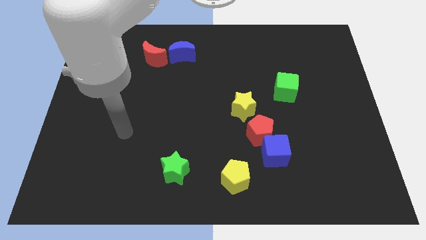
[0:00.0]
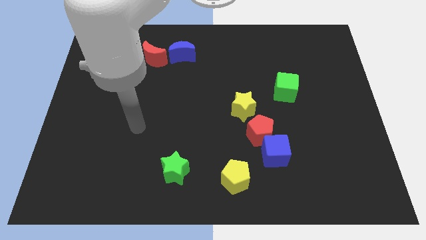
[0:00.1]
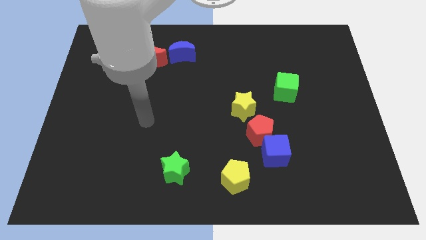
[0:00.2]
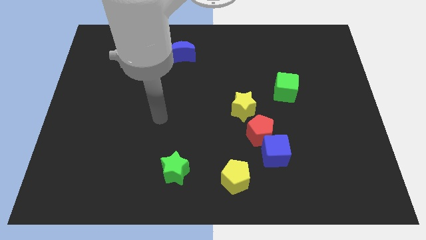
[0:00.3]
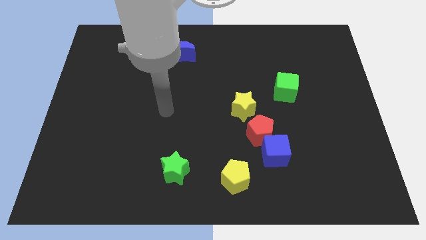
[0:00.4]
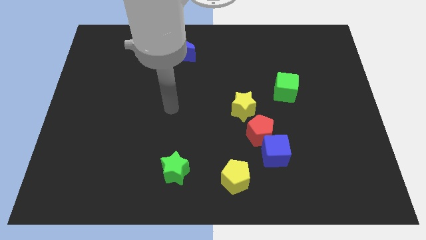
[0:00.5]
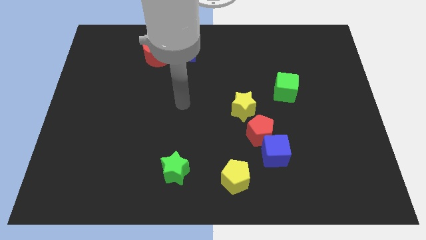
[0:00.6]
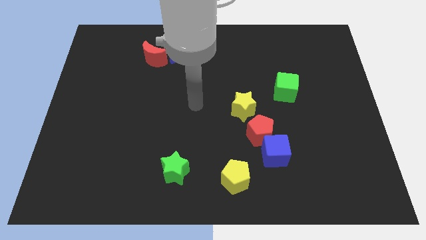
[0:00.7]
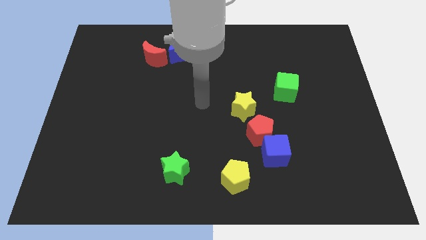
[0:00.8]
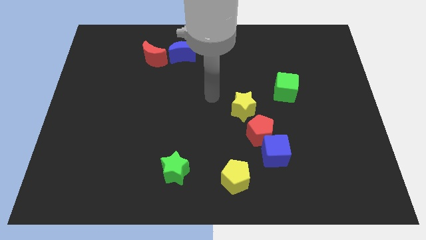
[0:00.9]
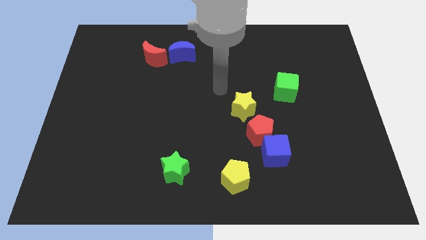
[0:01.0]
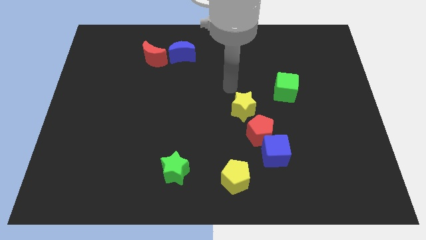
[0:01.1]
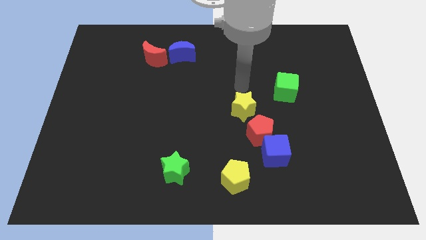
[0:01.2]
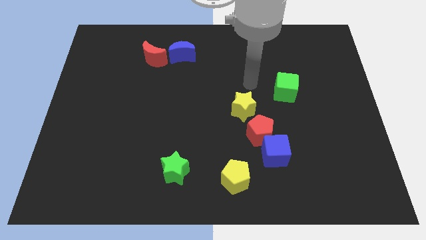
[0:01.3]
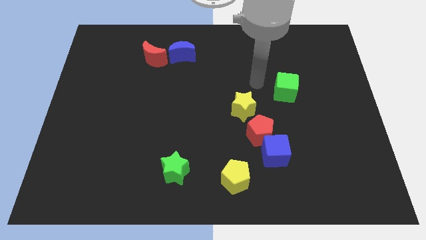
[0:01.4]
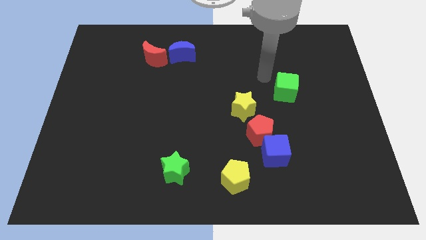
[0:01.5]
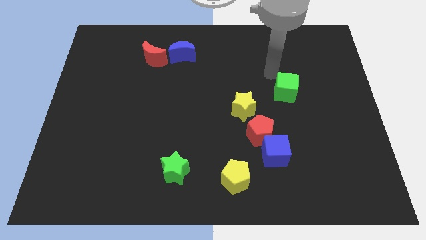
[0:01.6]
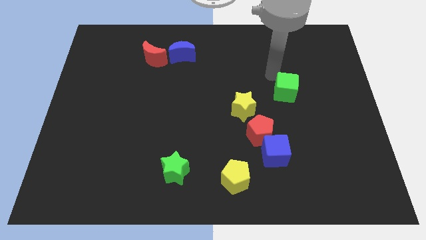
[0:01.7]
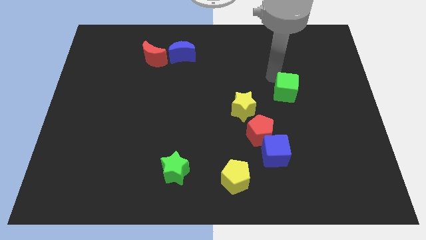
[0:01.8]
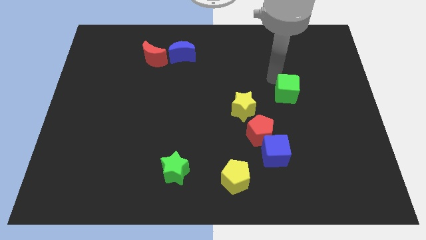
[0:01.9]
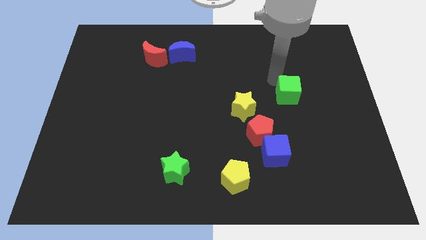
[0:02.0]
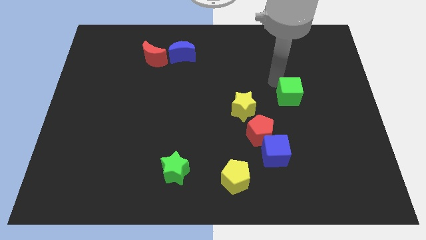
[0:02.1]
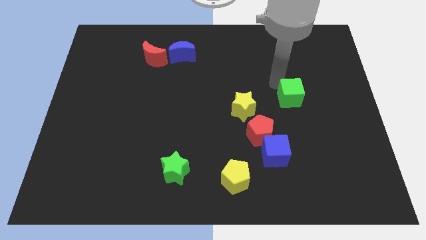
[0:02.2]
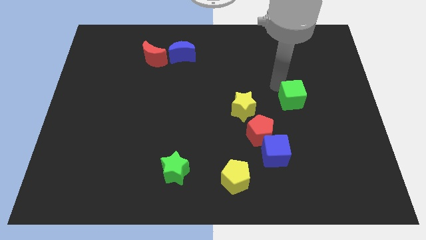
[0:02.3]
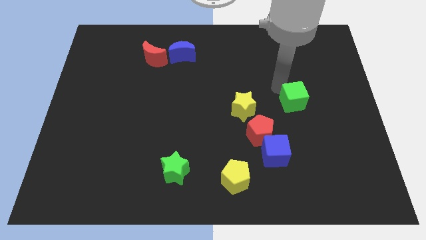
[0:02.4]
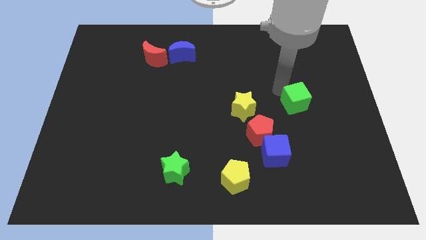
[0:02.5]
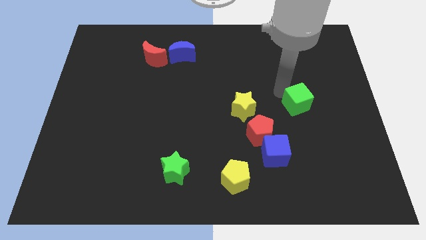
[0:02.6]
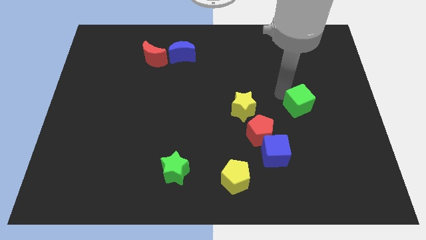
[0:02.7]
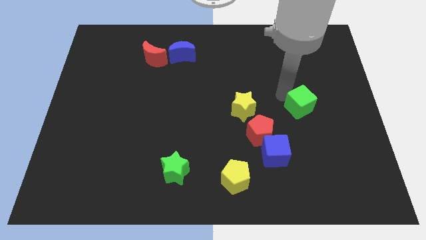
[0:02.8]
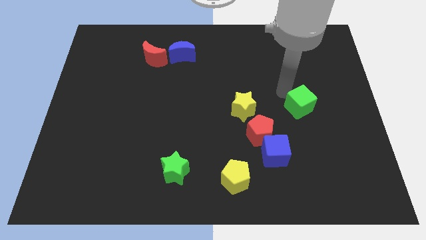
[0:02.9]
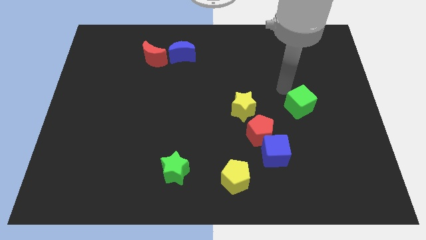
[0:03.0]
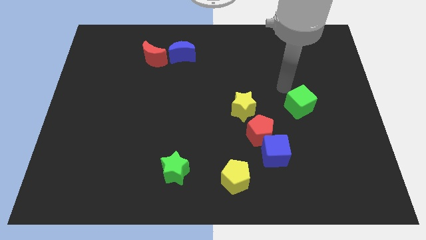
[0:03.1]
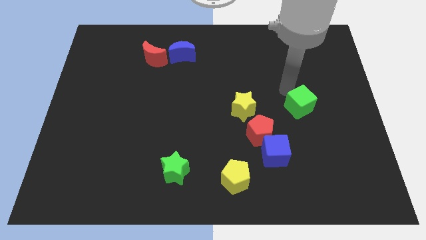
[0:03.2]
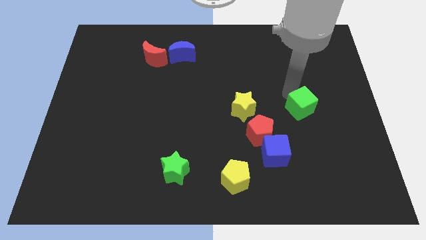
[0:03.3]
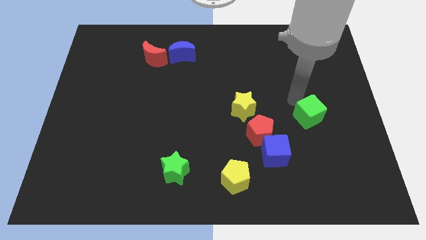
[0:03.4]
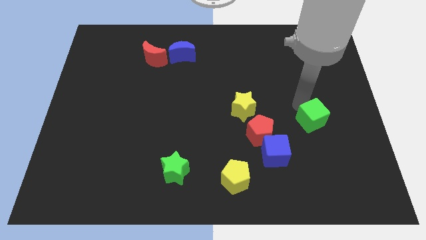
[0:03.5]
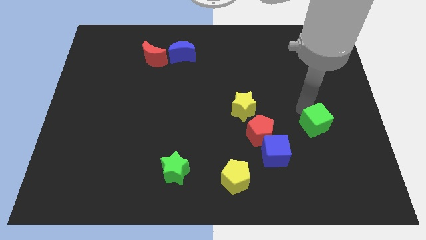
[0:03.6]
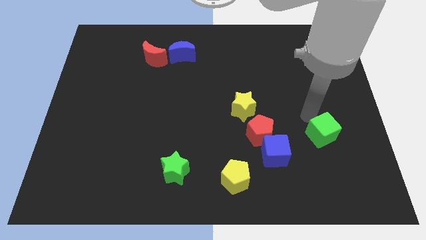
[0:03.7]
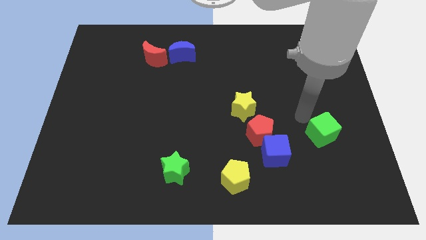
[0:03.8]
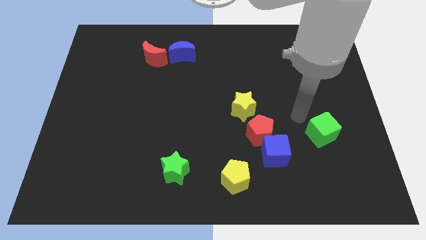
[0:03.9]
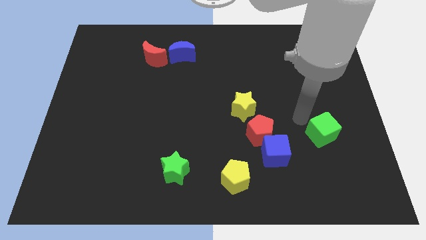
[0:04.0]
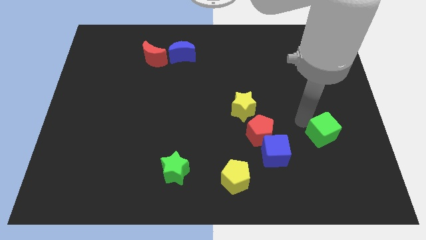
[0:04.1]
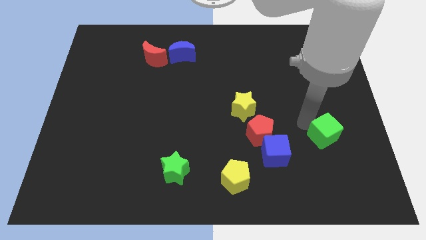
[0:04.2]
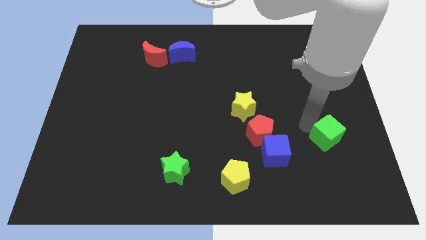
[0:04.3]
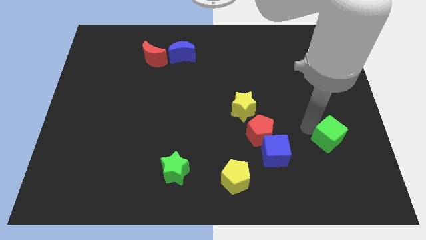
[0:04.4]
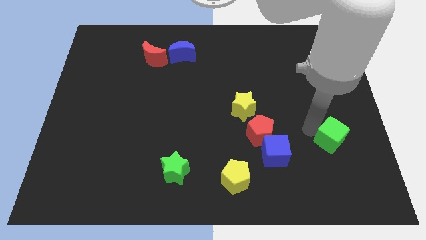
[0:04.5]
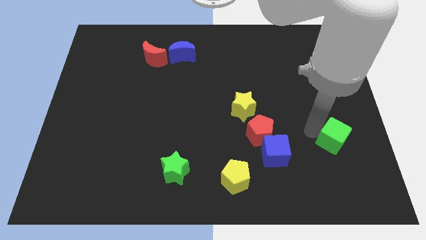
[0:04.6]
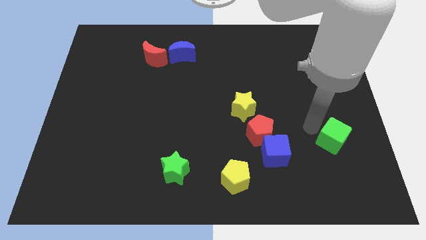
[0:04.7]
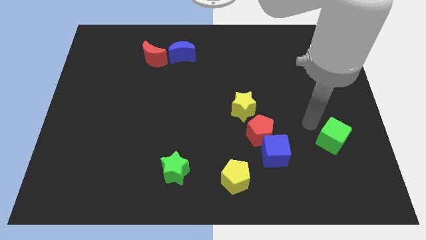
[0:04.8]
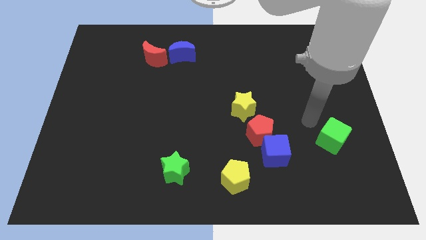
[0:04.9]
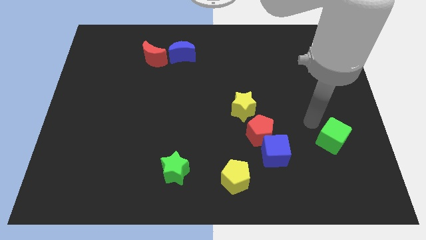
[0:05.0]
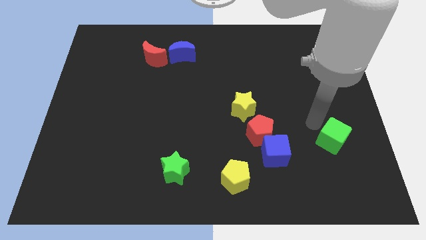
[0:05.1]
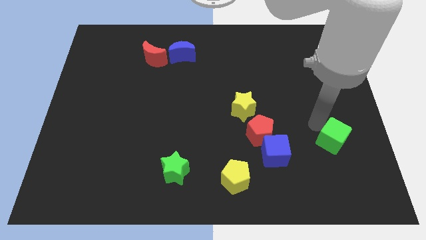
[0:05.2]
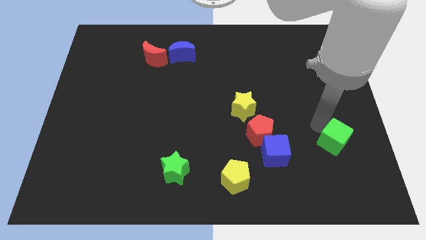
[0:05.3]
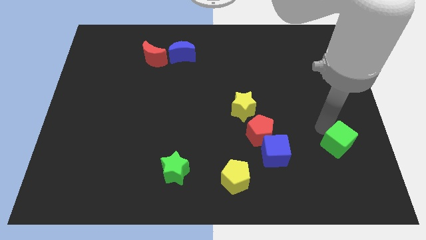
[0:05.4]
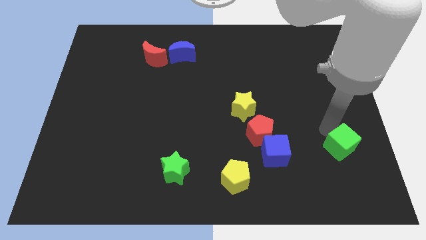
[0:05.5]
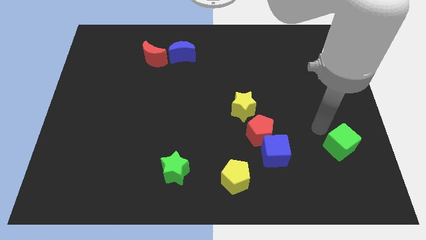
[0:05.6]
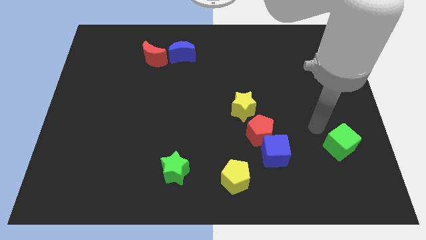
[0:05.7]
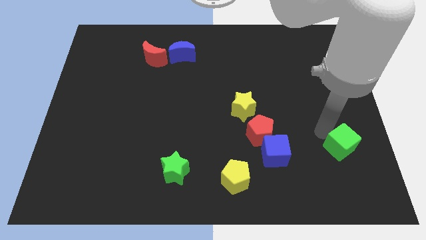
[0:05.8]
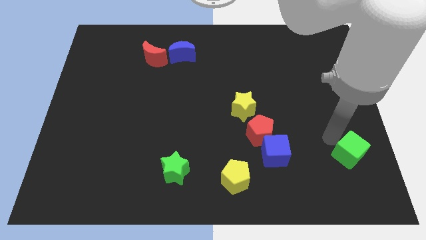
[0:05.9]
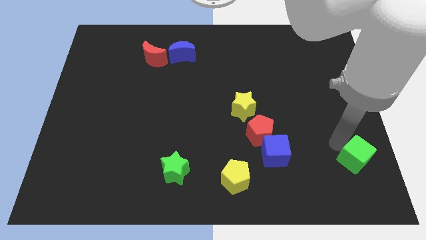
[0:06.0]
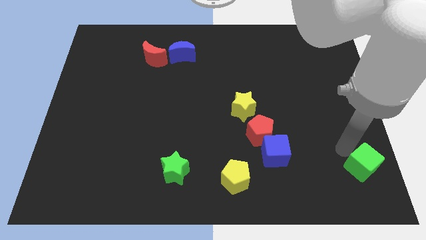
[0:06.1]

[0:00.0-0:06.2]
push the green cube to the bottom right of the board

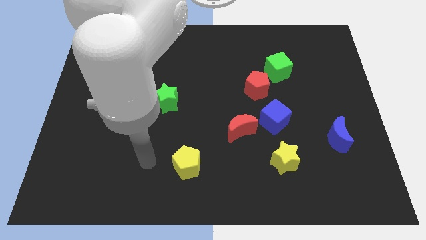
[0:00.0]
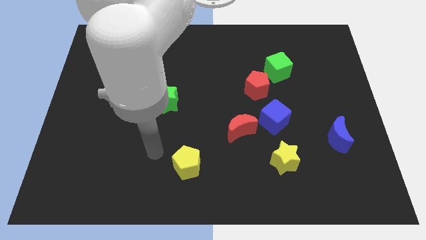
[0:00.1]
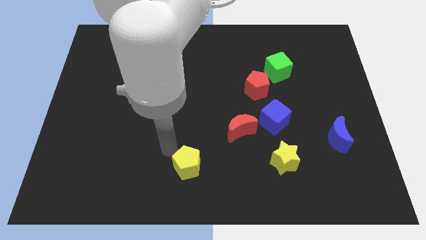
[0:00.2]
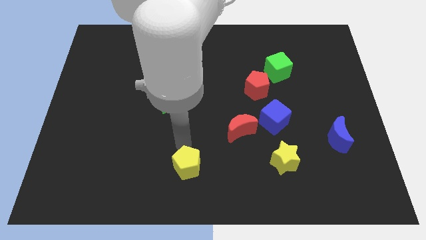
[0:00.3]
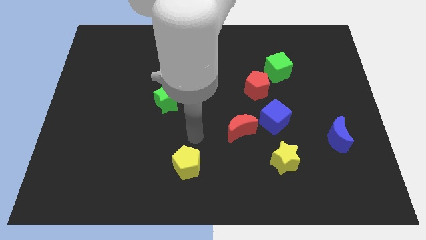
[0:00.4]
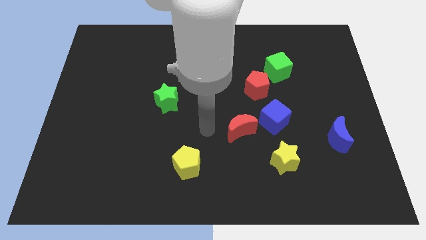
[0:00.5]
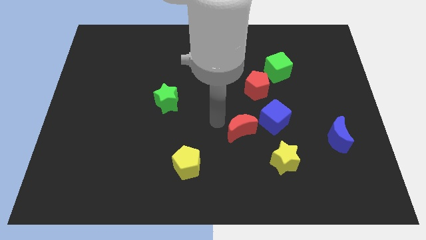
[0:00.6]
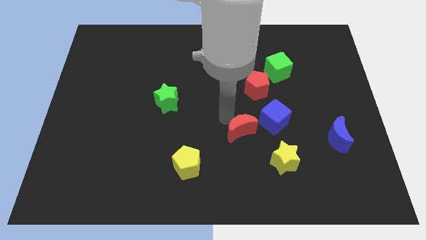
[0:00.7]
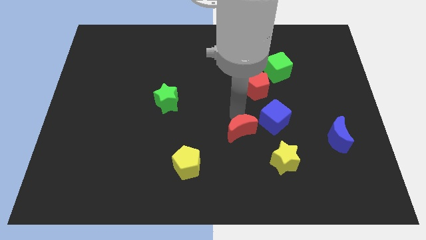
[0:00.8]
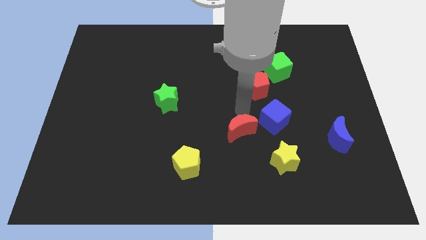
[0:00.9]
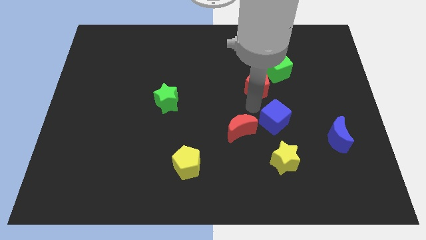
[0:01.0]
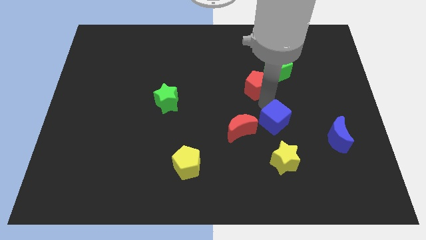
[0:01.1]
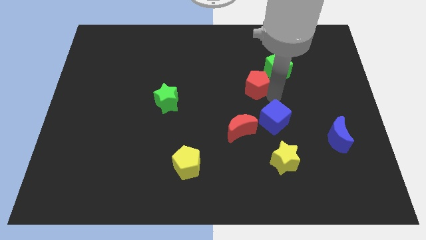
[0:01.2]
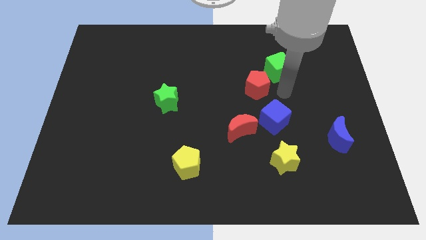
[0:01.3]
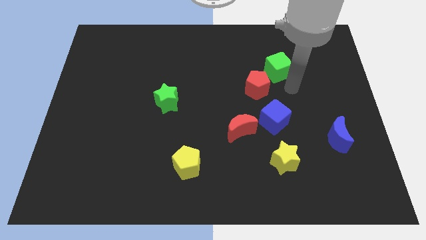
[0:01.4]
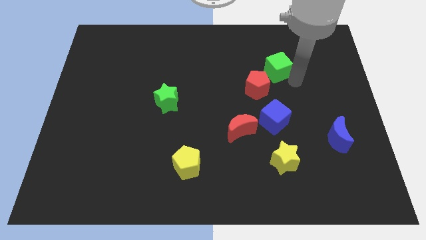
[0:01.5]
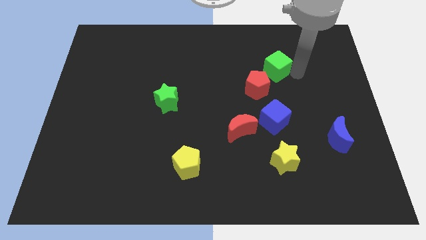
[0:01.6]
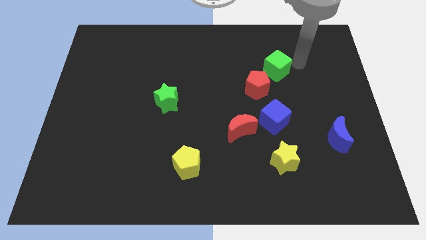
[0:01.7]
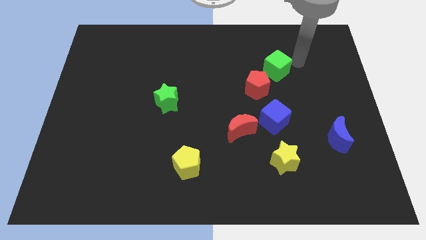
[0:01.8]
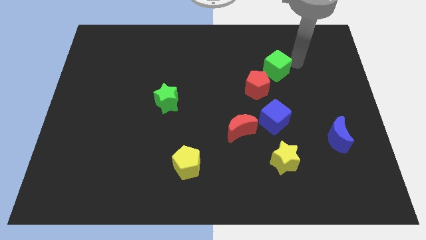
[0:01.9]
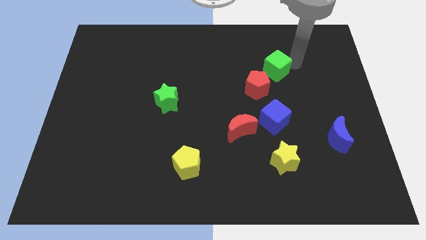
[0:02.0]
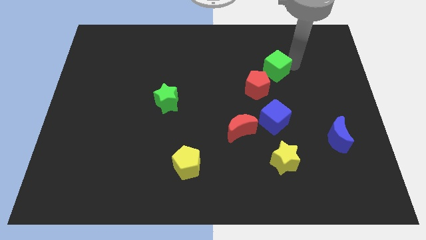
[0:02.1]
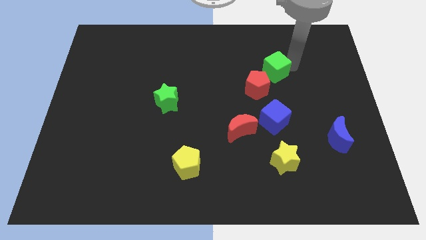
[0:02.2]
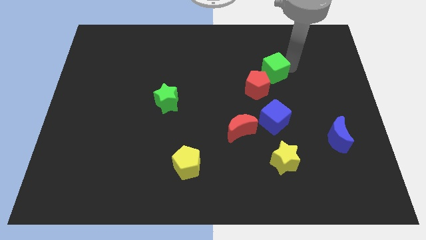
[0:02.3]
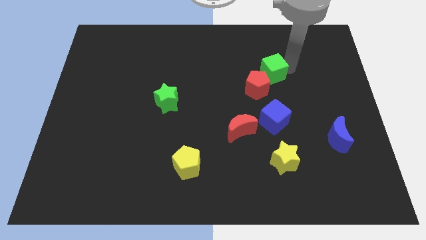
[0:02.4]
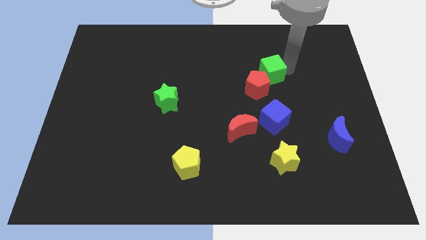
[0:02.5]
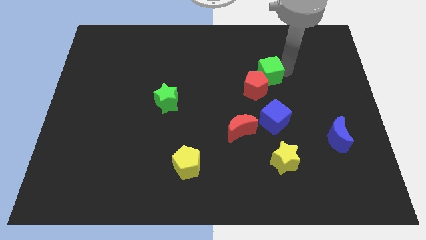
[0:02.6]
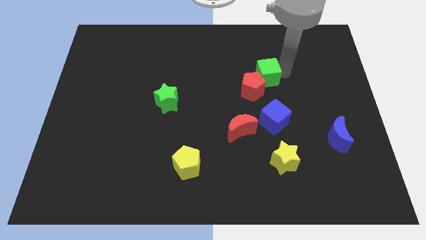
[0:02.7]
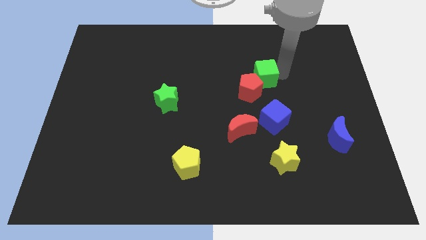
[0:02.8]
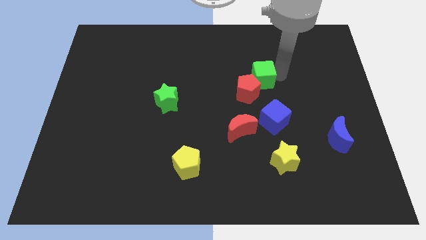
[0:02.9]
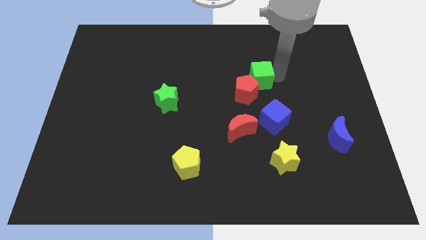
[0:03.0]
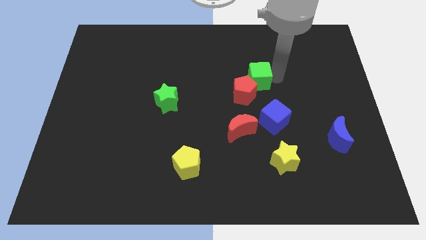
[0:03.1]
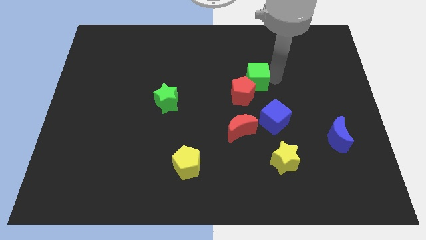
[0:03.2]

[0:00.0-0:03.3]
slide the green cube to the center of the board
